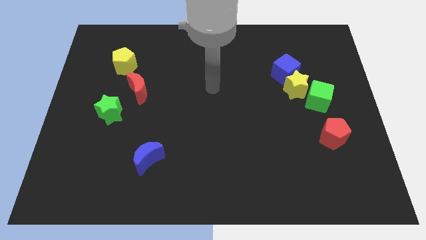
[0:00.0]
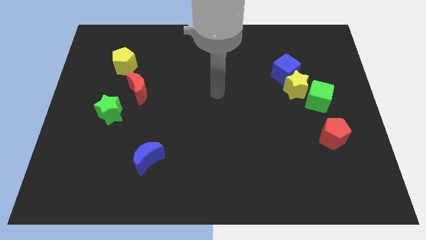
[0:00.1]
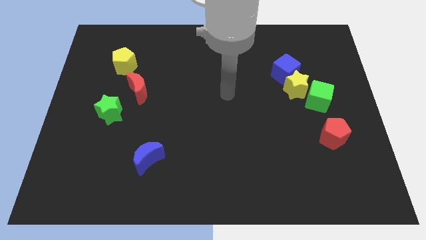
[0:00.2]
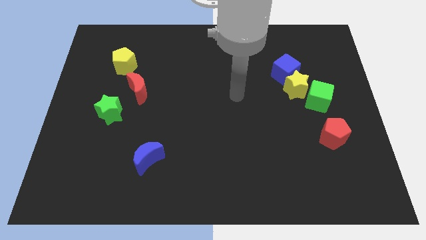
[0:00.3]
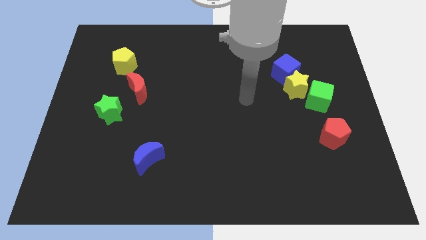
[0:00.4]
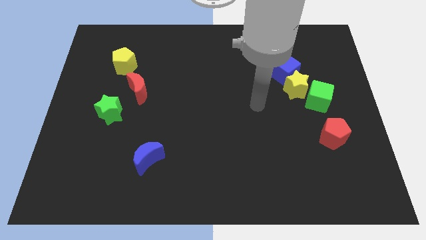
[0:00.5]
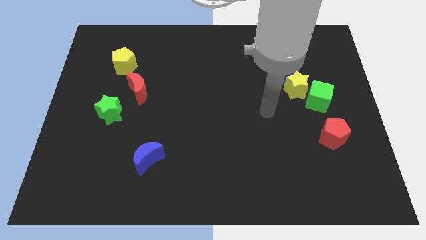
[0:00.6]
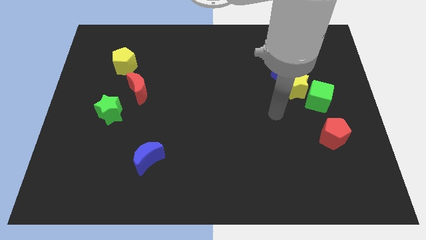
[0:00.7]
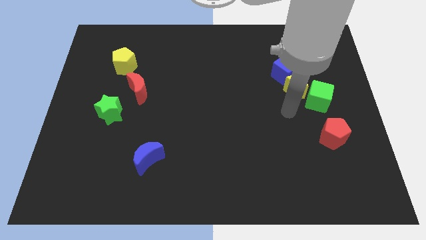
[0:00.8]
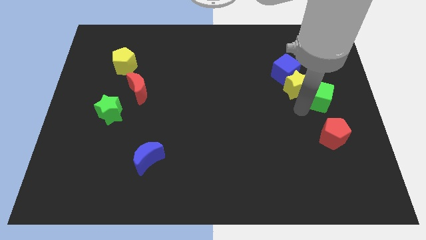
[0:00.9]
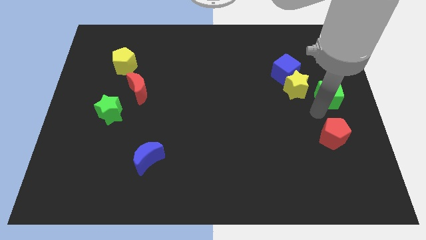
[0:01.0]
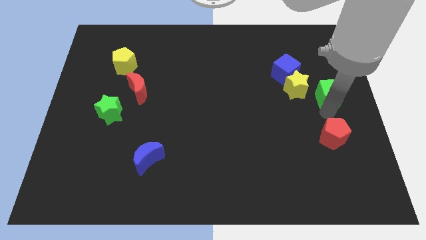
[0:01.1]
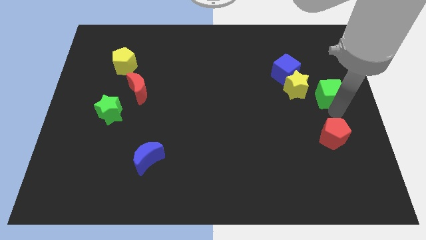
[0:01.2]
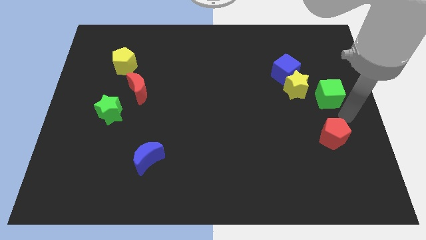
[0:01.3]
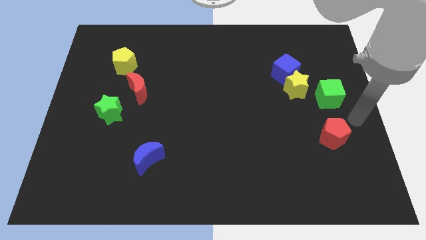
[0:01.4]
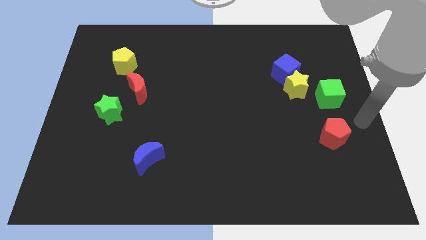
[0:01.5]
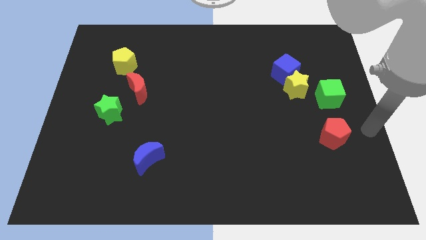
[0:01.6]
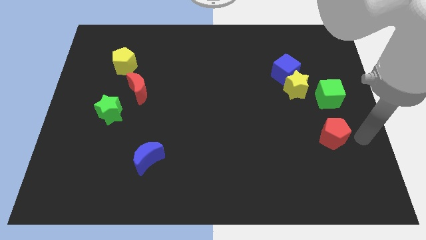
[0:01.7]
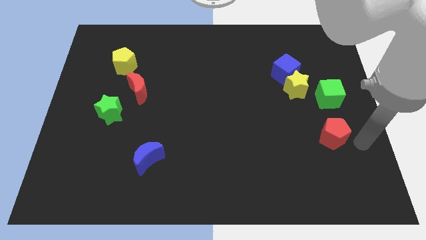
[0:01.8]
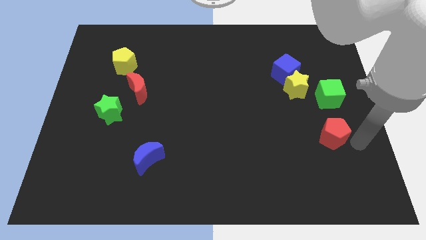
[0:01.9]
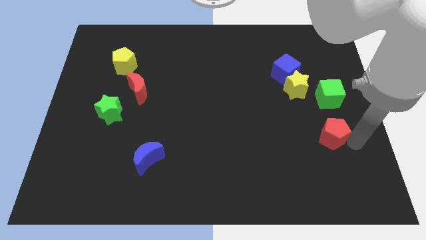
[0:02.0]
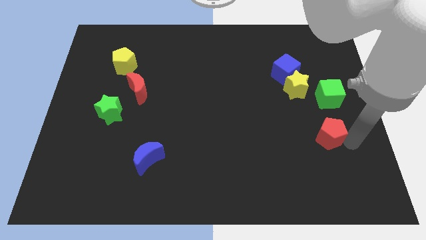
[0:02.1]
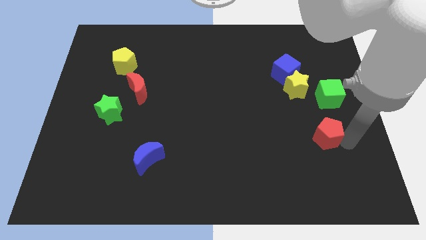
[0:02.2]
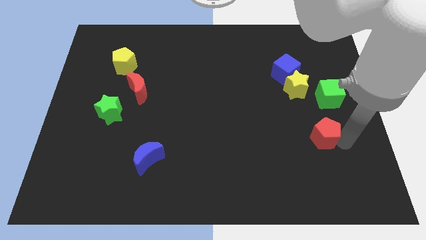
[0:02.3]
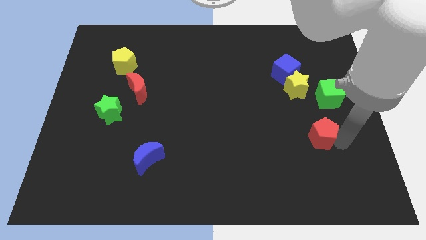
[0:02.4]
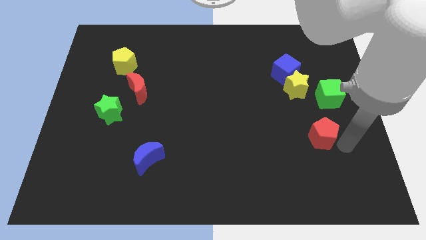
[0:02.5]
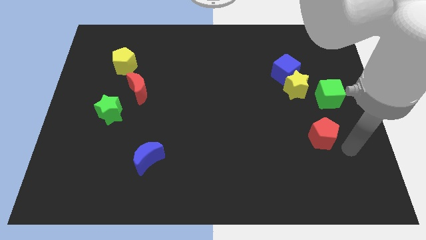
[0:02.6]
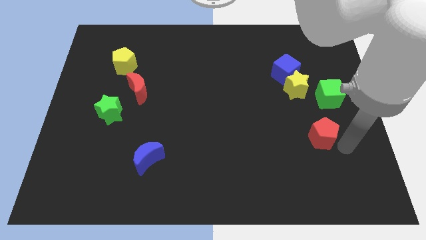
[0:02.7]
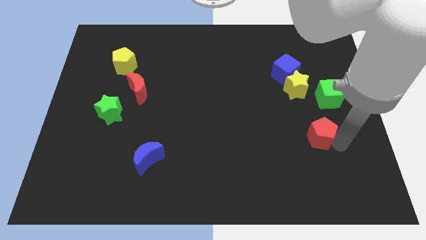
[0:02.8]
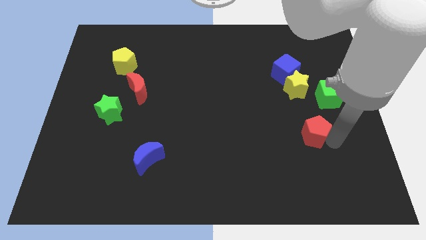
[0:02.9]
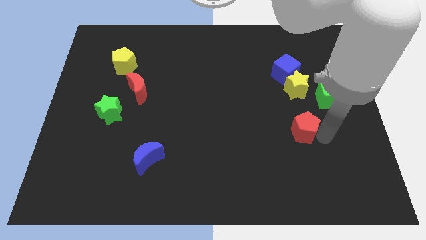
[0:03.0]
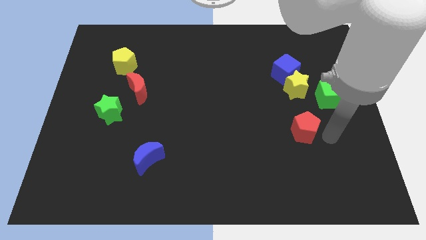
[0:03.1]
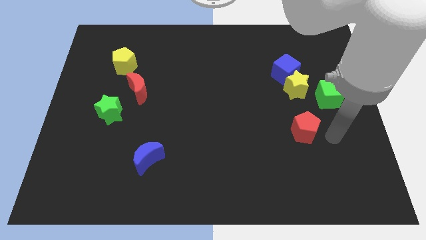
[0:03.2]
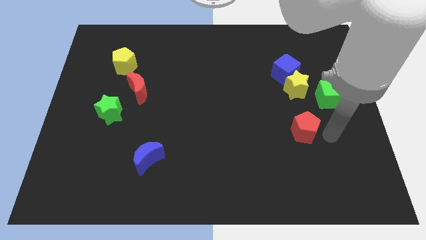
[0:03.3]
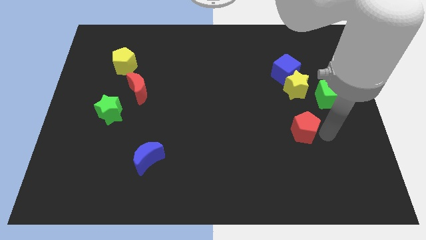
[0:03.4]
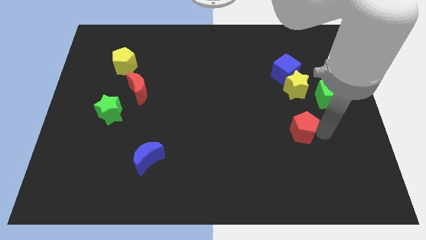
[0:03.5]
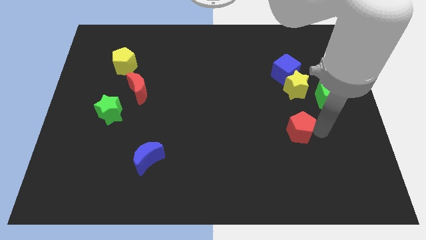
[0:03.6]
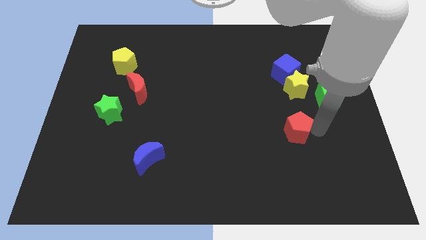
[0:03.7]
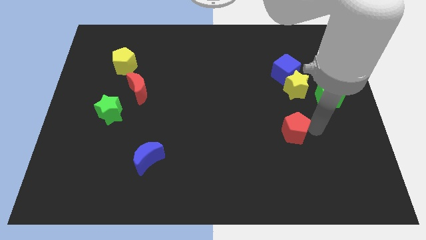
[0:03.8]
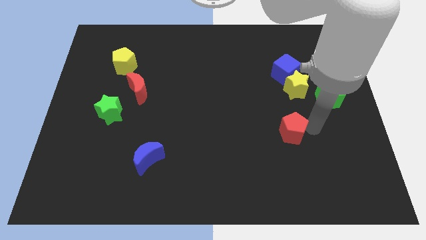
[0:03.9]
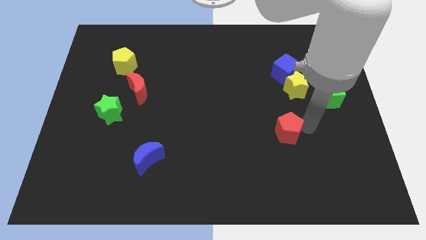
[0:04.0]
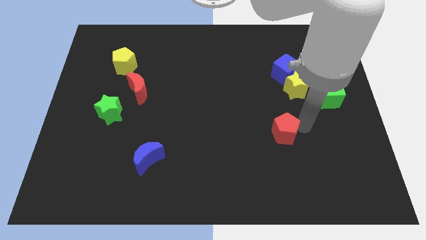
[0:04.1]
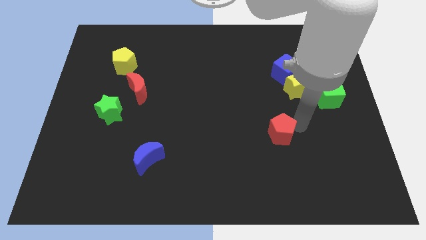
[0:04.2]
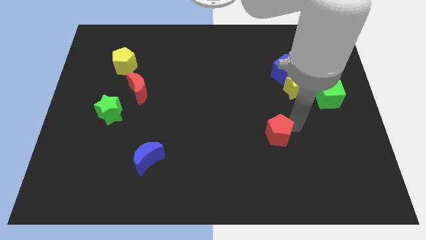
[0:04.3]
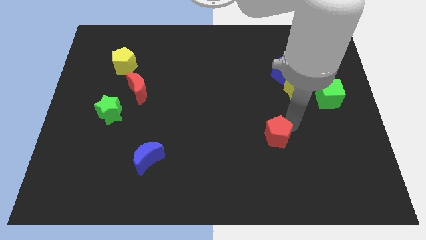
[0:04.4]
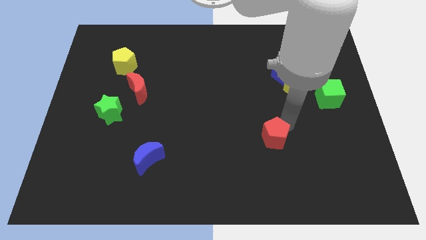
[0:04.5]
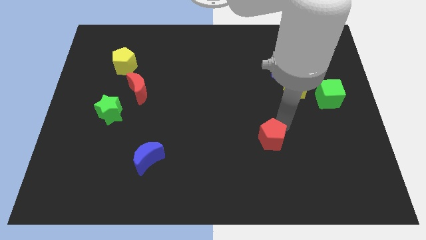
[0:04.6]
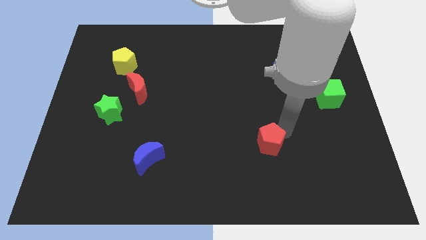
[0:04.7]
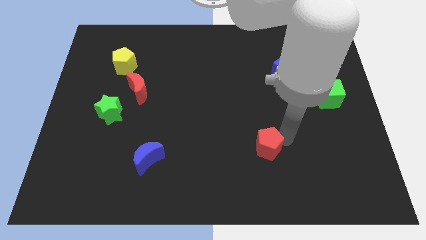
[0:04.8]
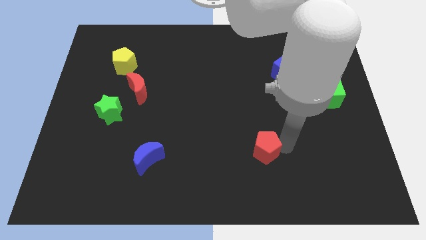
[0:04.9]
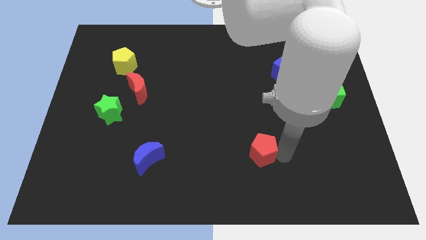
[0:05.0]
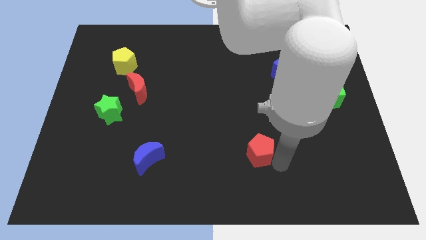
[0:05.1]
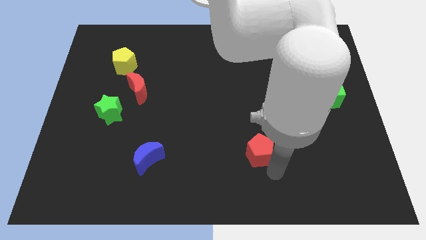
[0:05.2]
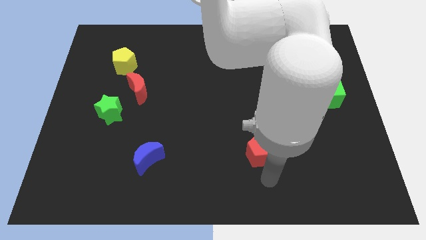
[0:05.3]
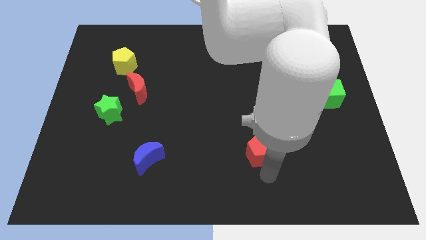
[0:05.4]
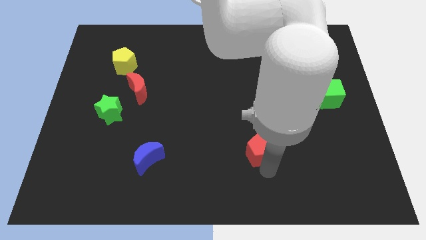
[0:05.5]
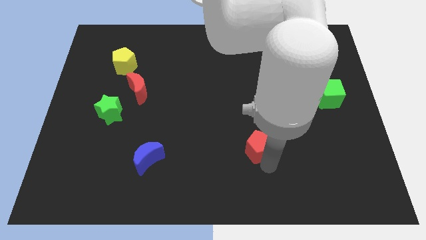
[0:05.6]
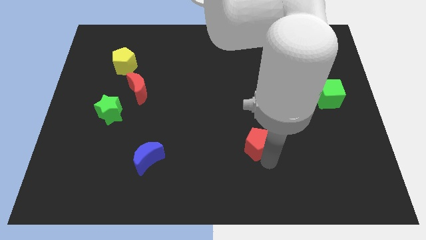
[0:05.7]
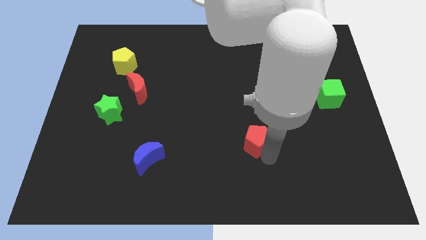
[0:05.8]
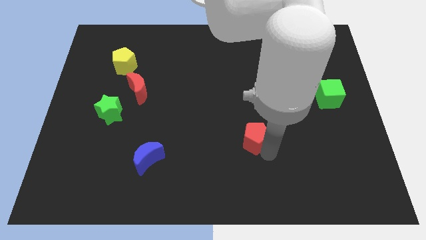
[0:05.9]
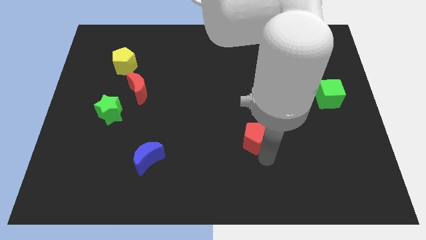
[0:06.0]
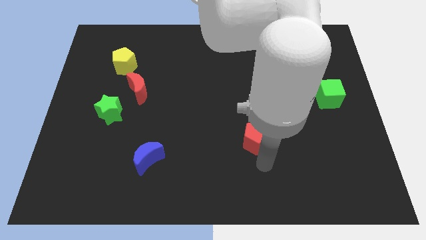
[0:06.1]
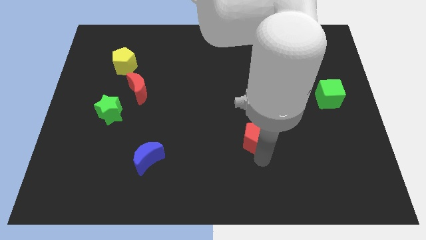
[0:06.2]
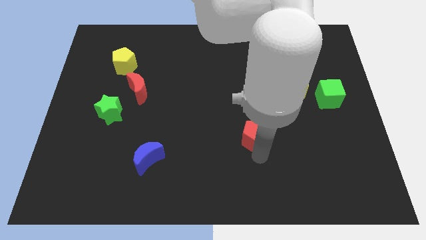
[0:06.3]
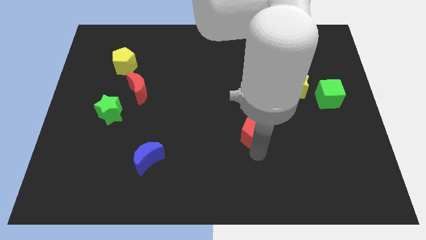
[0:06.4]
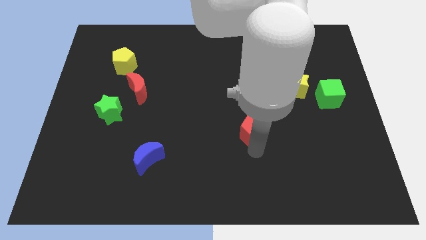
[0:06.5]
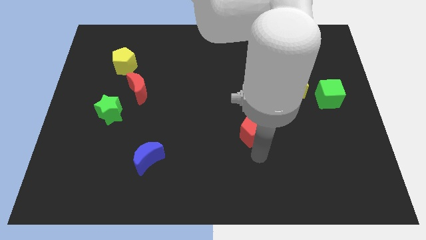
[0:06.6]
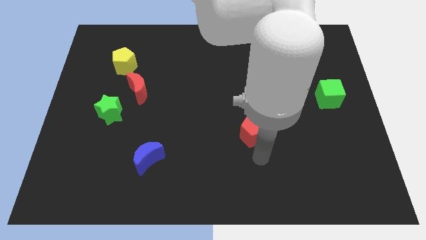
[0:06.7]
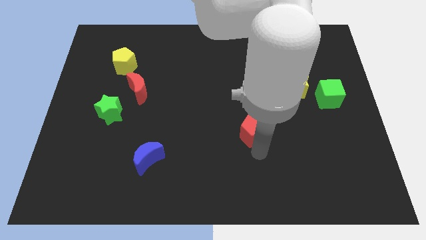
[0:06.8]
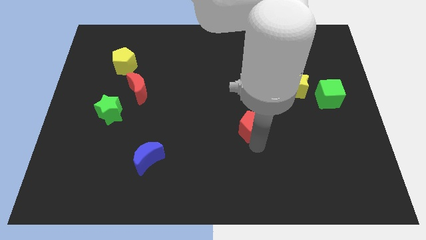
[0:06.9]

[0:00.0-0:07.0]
move the red pentagon to the middle
